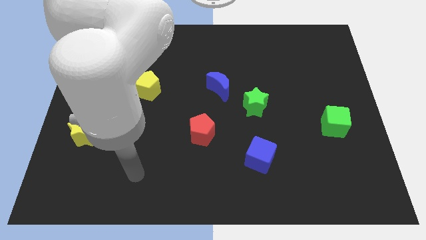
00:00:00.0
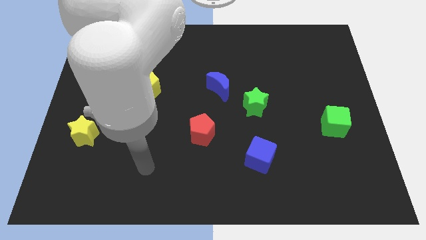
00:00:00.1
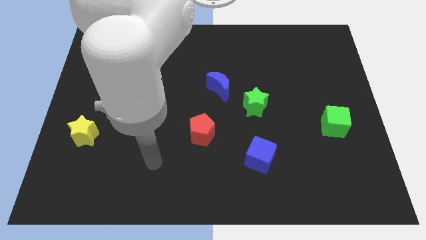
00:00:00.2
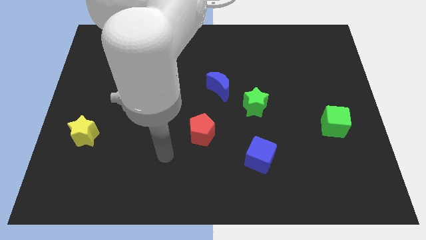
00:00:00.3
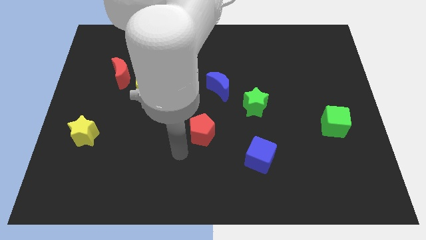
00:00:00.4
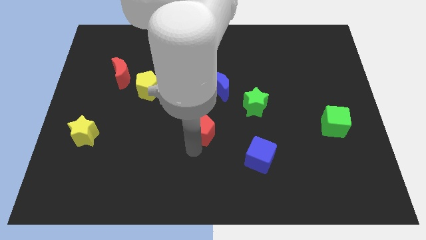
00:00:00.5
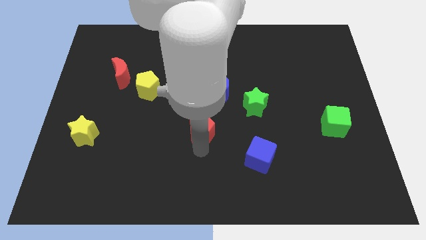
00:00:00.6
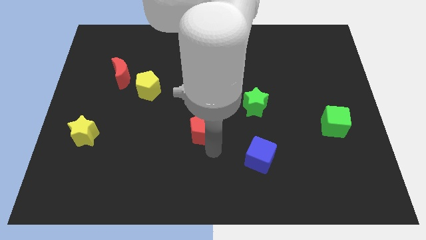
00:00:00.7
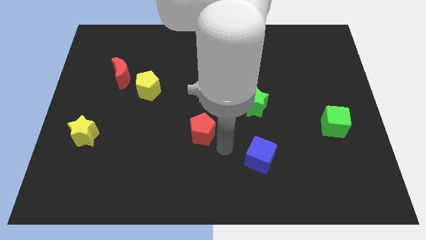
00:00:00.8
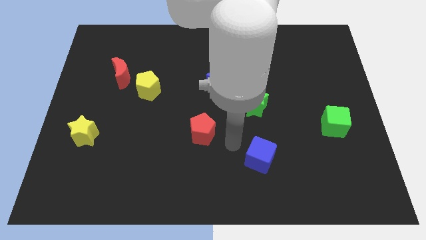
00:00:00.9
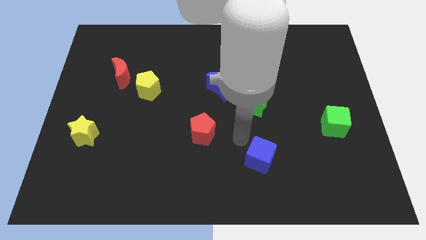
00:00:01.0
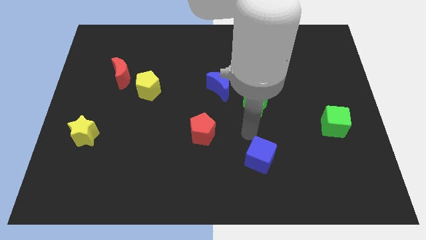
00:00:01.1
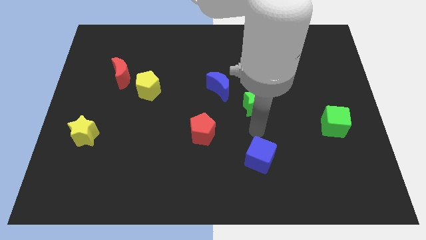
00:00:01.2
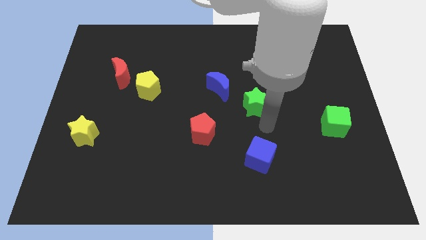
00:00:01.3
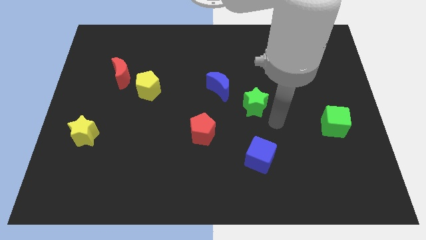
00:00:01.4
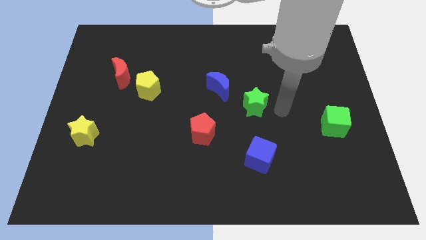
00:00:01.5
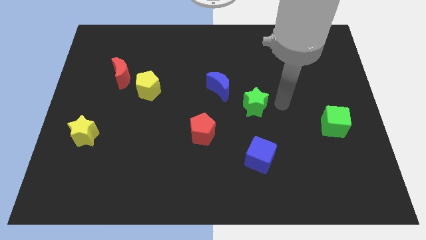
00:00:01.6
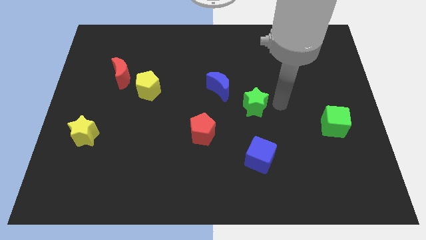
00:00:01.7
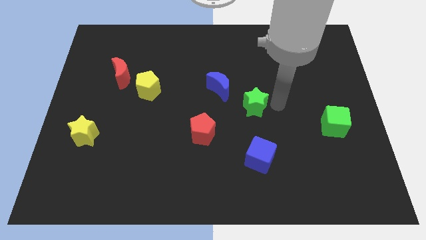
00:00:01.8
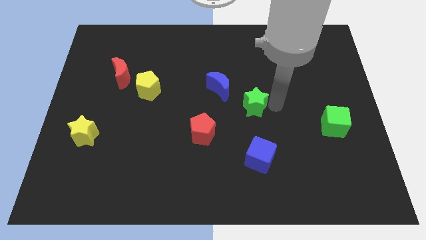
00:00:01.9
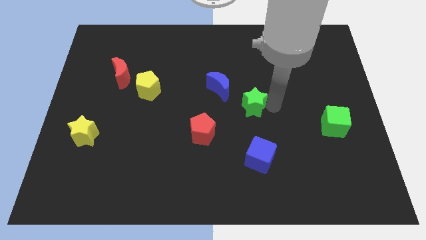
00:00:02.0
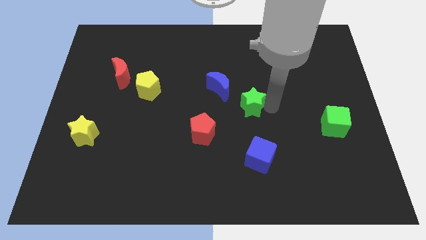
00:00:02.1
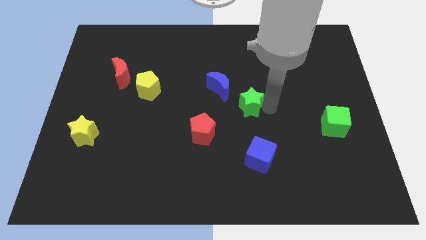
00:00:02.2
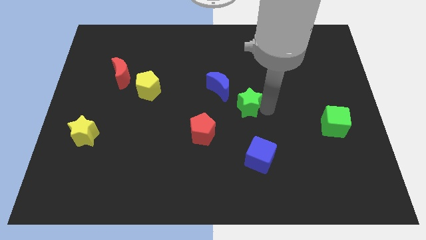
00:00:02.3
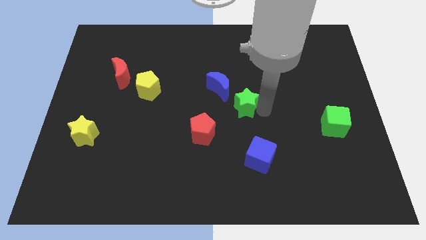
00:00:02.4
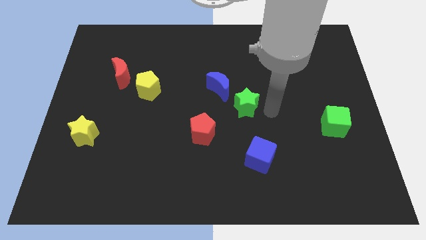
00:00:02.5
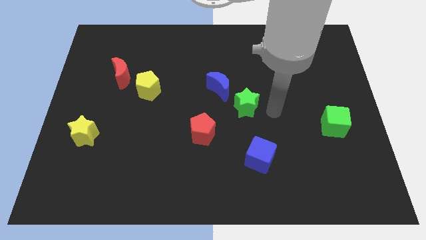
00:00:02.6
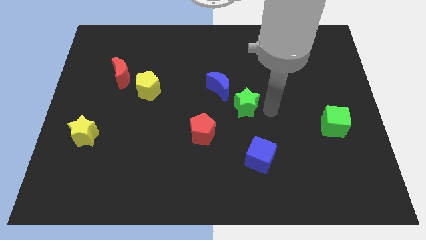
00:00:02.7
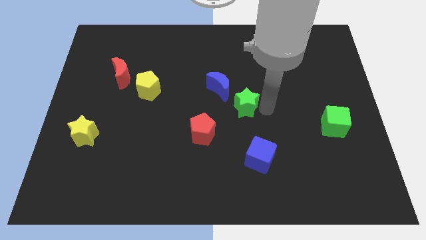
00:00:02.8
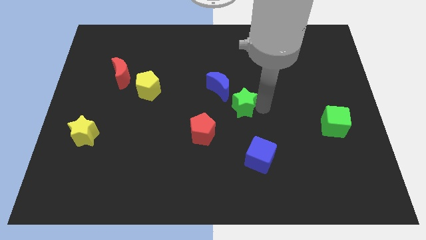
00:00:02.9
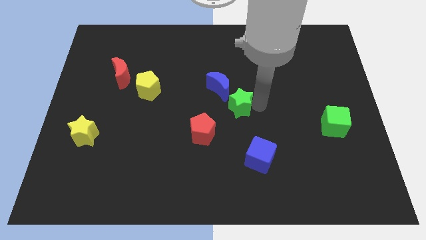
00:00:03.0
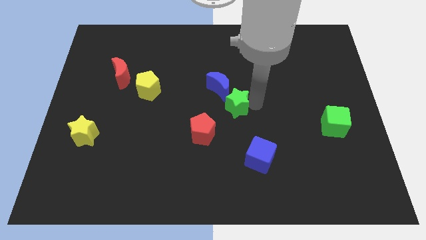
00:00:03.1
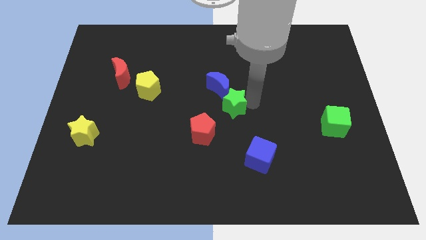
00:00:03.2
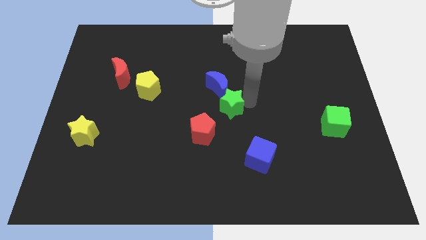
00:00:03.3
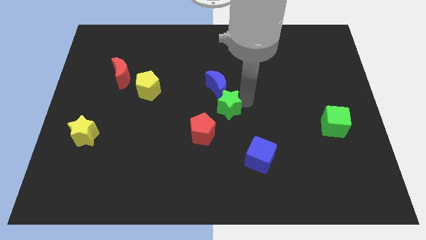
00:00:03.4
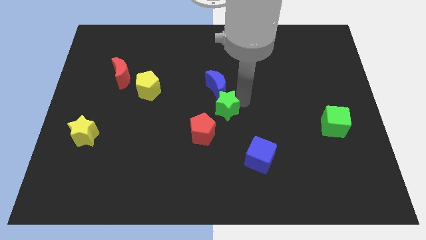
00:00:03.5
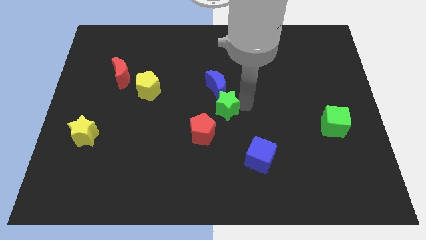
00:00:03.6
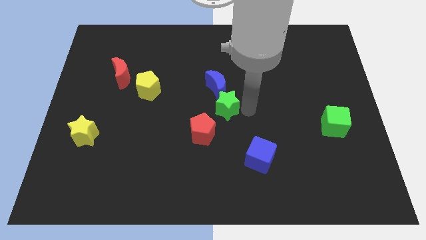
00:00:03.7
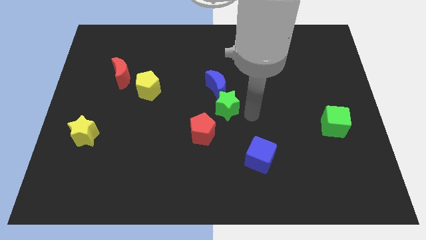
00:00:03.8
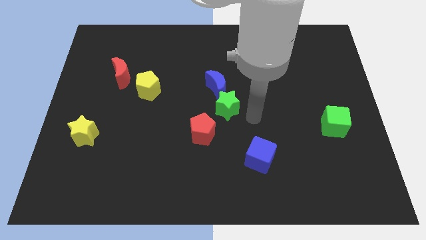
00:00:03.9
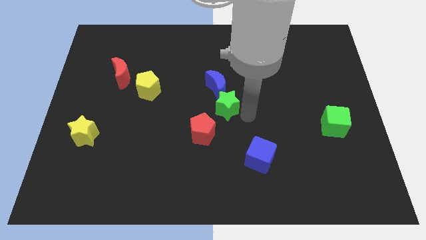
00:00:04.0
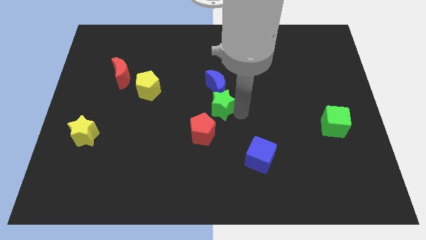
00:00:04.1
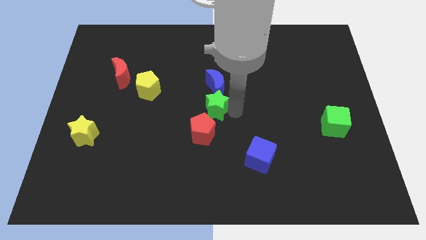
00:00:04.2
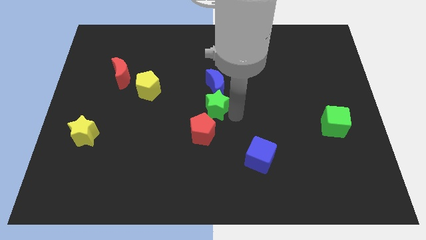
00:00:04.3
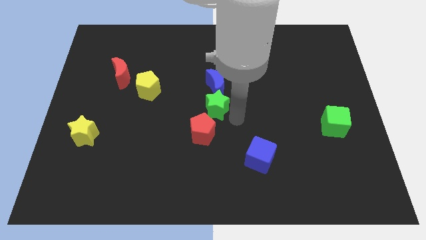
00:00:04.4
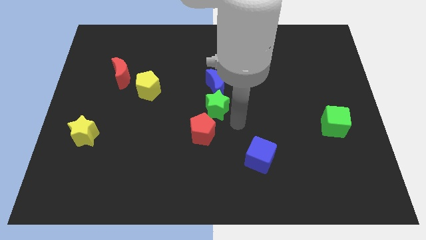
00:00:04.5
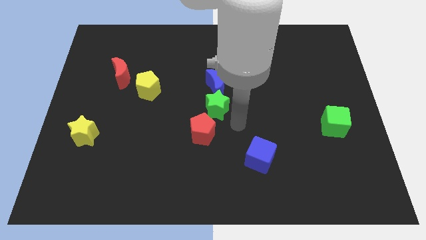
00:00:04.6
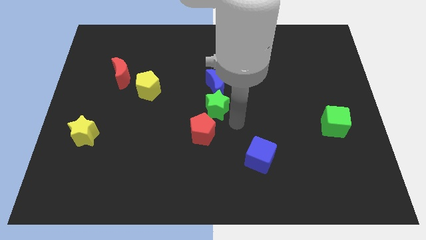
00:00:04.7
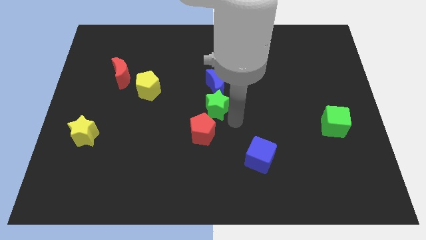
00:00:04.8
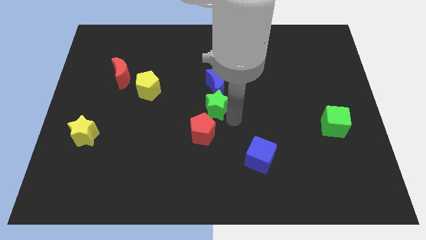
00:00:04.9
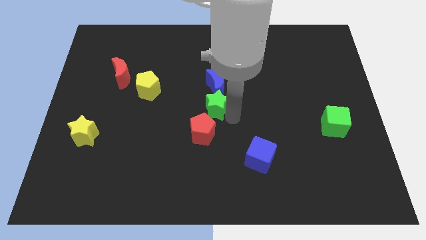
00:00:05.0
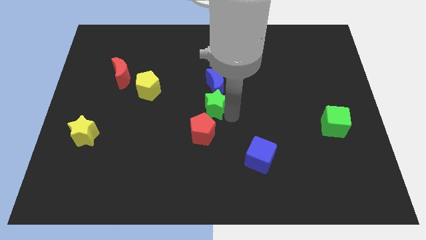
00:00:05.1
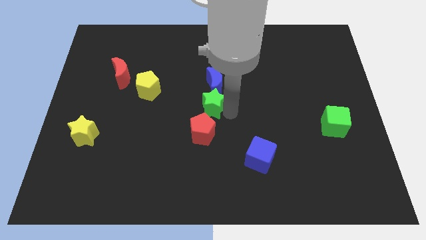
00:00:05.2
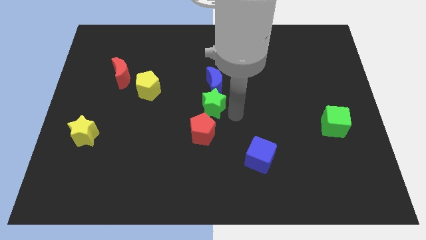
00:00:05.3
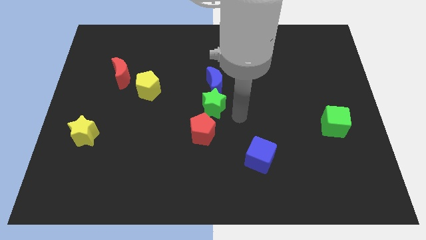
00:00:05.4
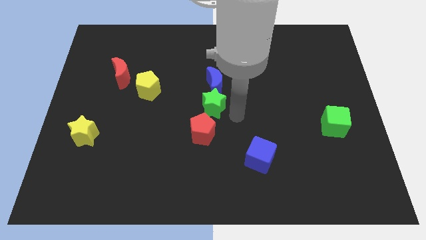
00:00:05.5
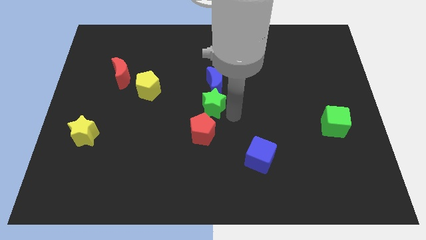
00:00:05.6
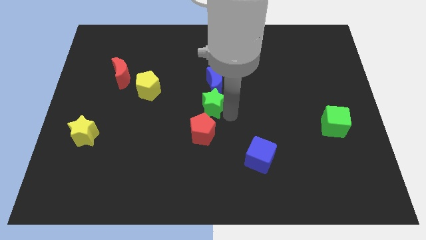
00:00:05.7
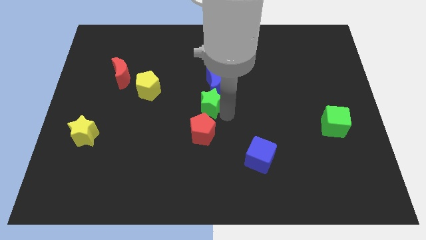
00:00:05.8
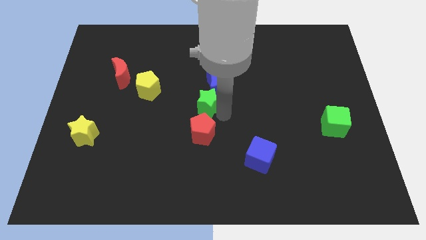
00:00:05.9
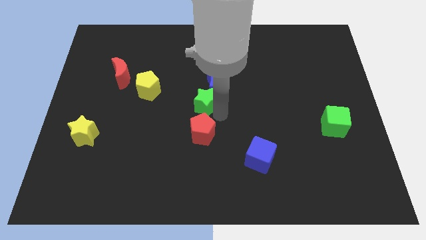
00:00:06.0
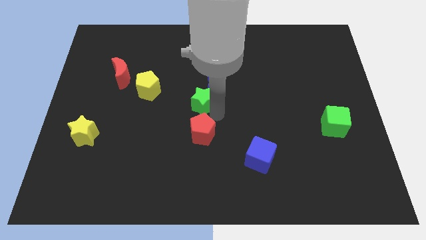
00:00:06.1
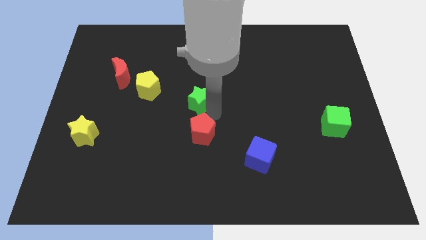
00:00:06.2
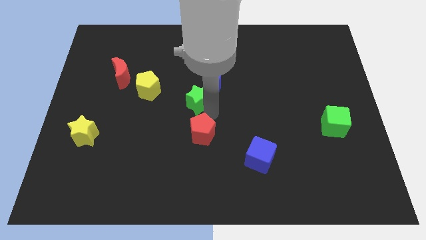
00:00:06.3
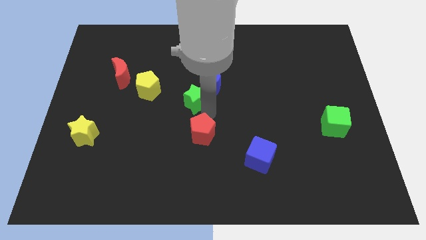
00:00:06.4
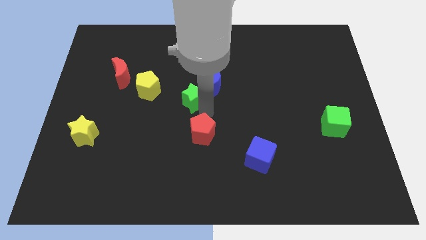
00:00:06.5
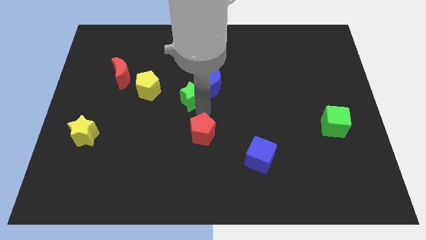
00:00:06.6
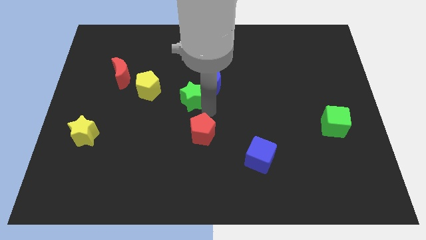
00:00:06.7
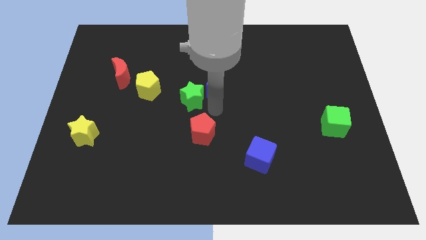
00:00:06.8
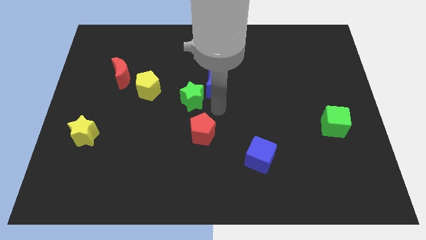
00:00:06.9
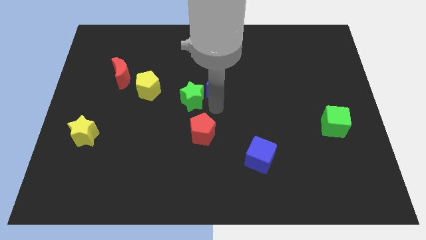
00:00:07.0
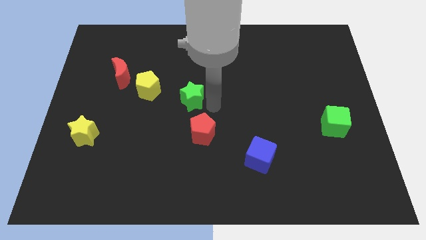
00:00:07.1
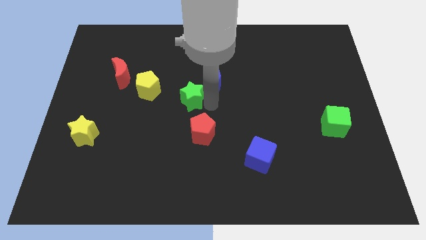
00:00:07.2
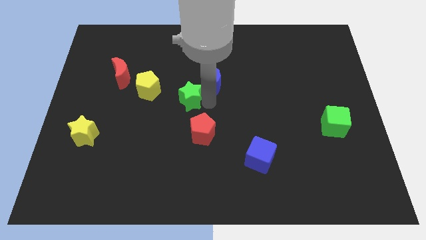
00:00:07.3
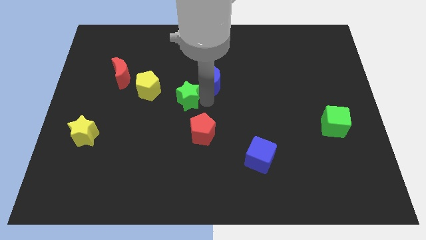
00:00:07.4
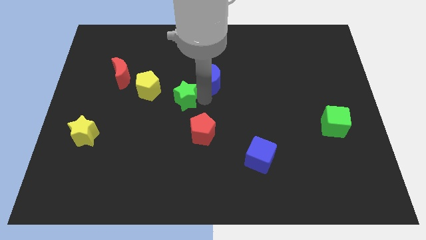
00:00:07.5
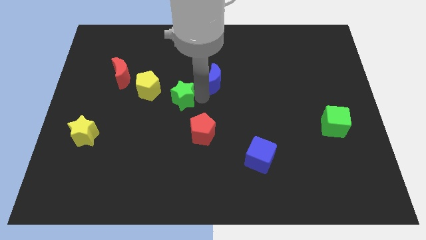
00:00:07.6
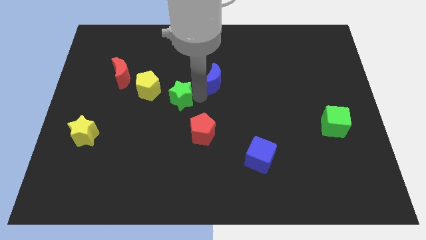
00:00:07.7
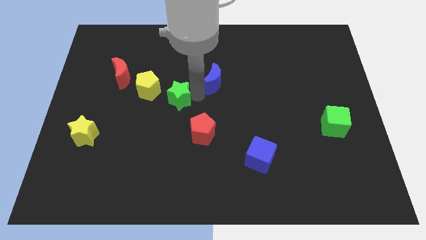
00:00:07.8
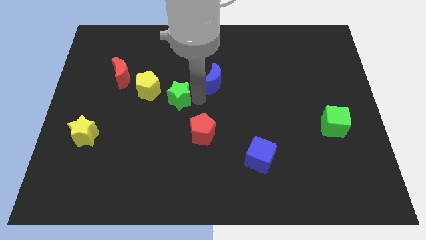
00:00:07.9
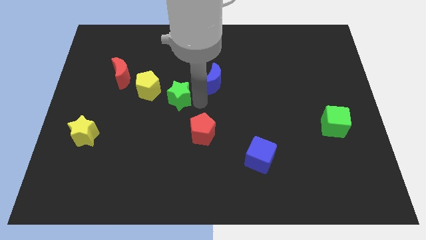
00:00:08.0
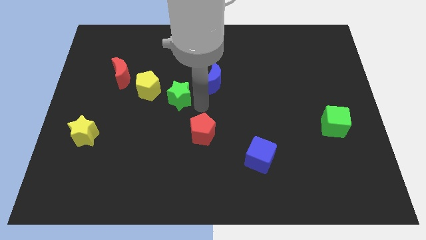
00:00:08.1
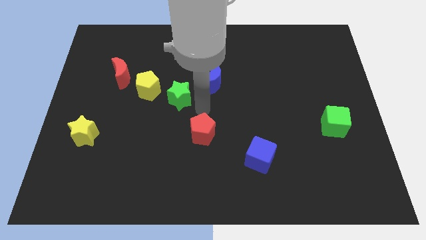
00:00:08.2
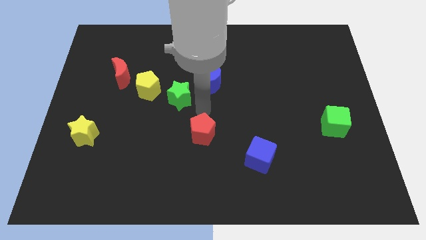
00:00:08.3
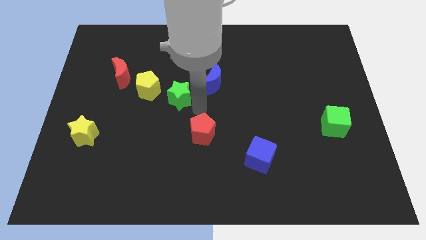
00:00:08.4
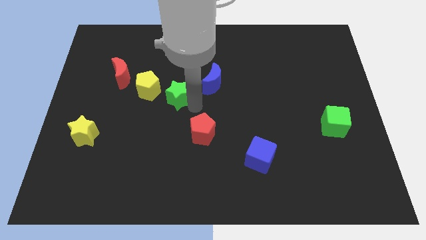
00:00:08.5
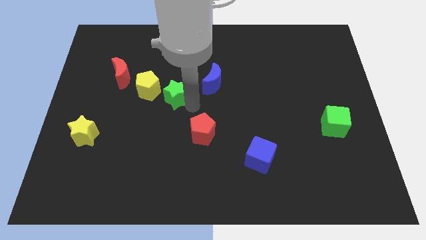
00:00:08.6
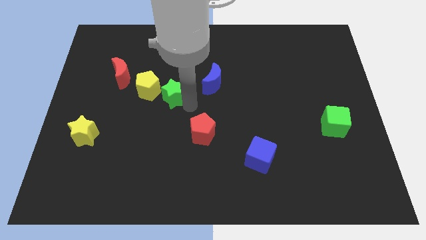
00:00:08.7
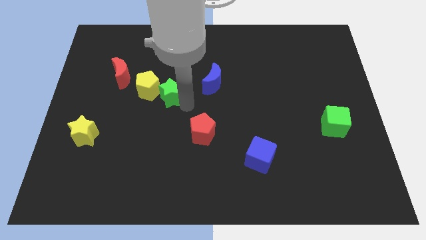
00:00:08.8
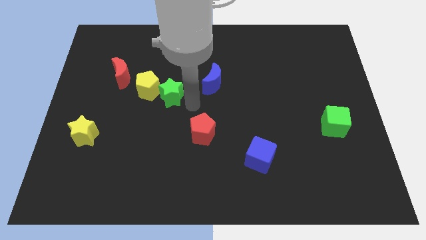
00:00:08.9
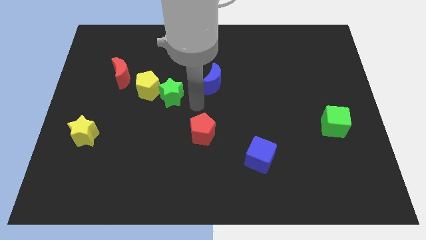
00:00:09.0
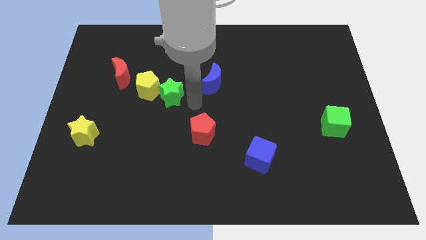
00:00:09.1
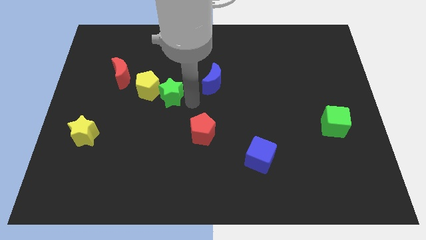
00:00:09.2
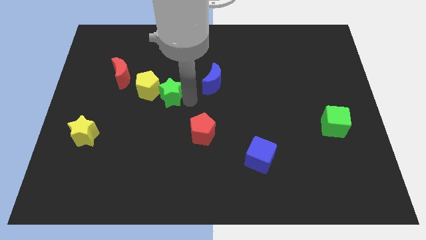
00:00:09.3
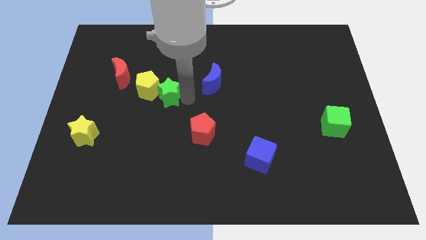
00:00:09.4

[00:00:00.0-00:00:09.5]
slide the green star close to the yellow pentagon
